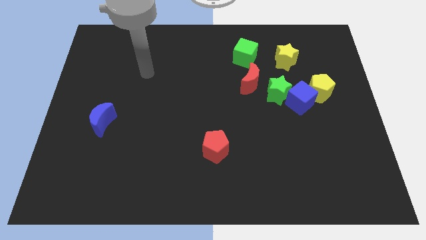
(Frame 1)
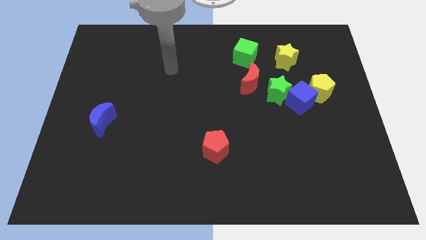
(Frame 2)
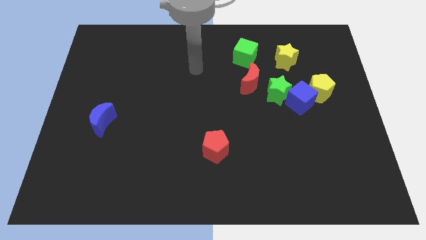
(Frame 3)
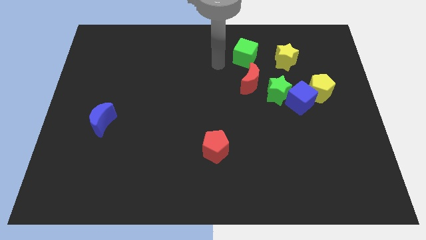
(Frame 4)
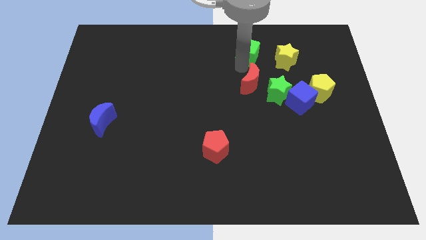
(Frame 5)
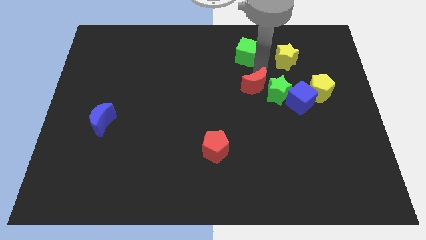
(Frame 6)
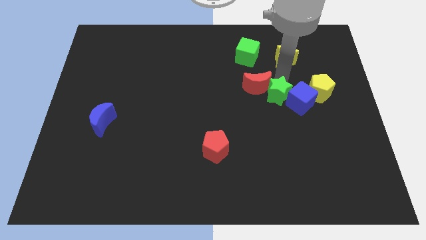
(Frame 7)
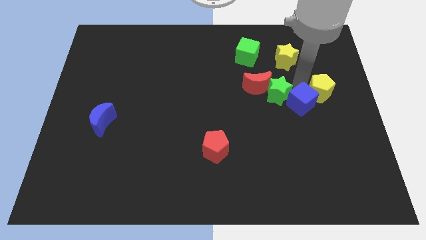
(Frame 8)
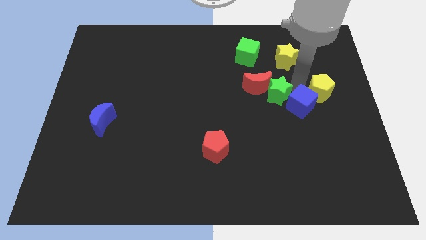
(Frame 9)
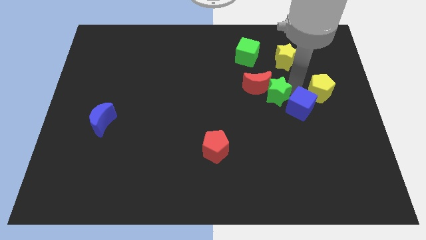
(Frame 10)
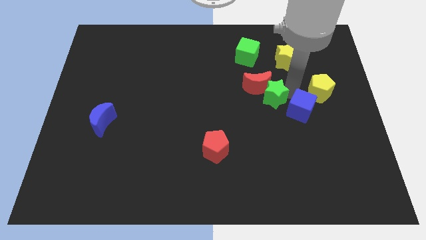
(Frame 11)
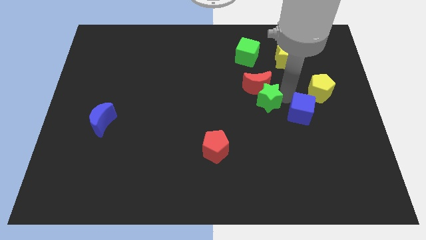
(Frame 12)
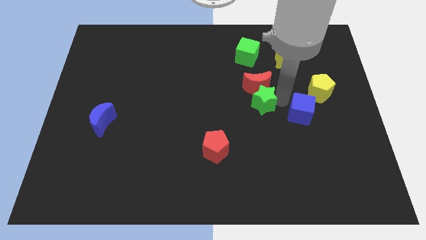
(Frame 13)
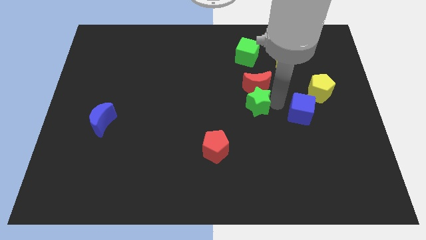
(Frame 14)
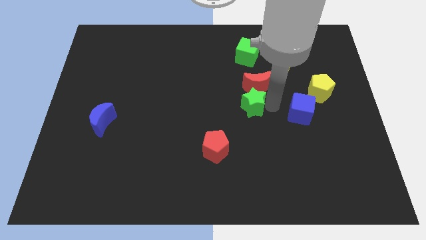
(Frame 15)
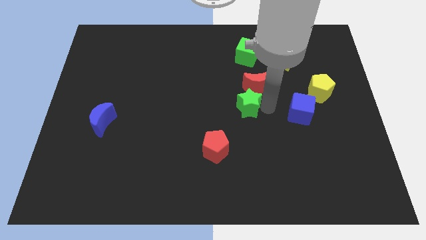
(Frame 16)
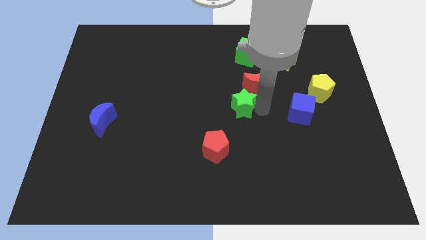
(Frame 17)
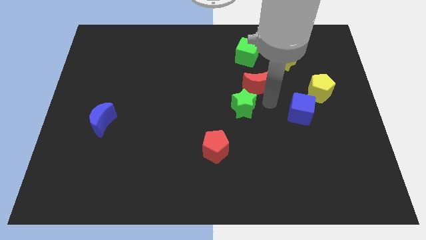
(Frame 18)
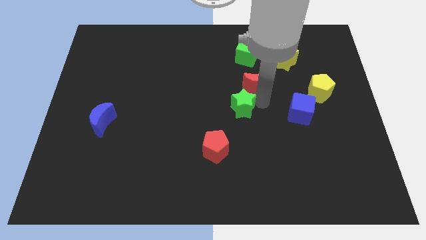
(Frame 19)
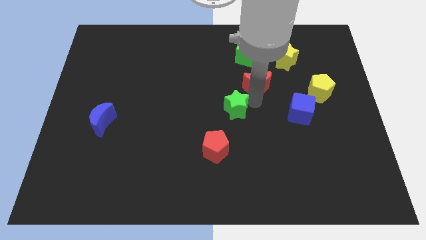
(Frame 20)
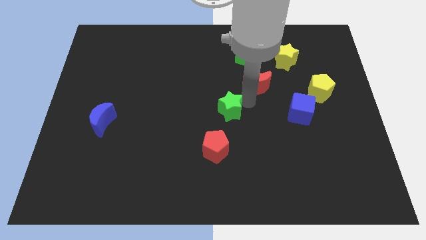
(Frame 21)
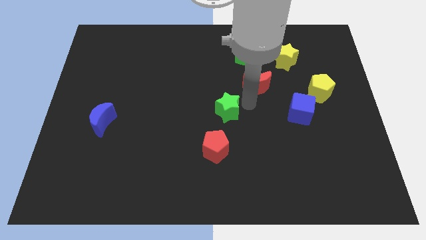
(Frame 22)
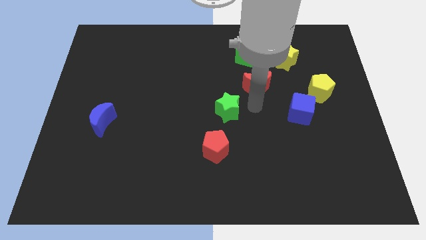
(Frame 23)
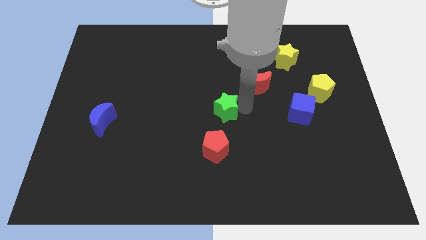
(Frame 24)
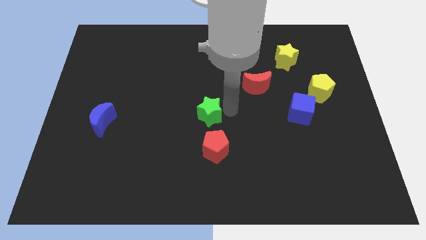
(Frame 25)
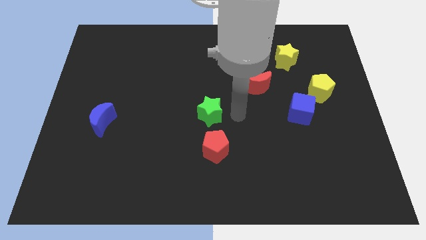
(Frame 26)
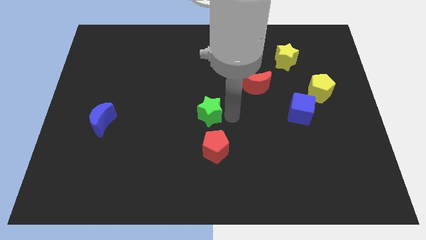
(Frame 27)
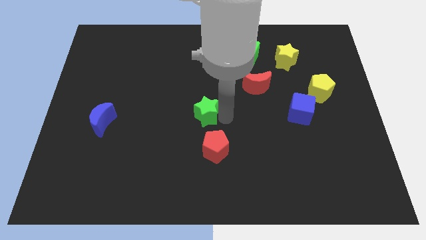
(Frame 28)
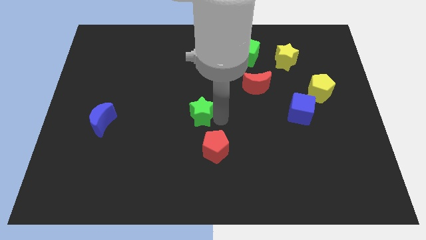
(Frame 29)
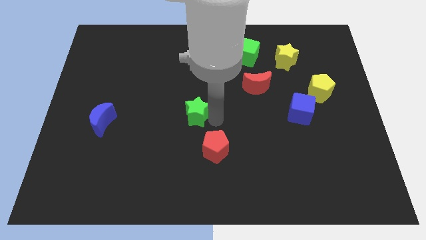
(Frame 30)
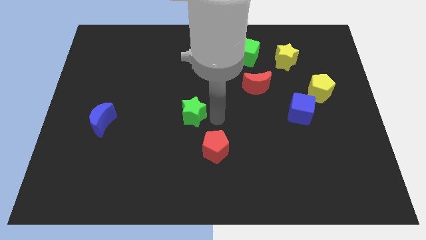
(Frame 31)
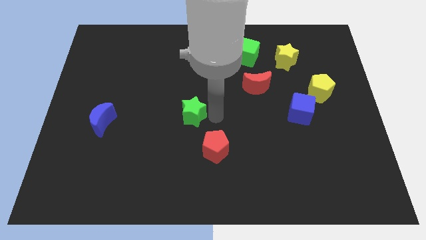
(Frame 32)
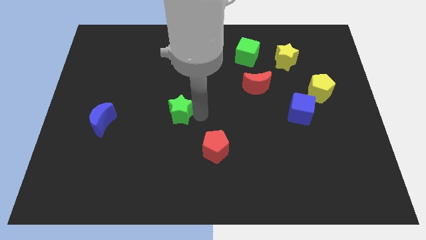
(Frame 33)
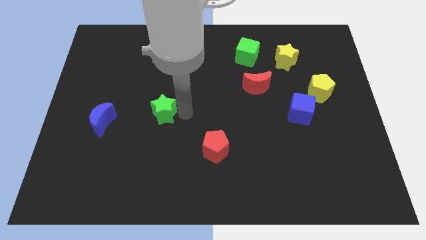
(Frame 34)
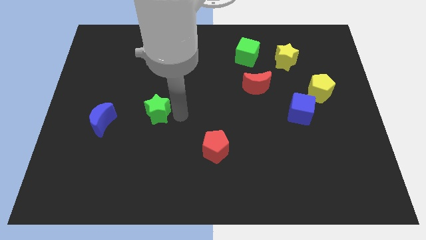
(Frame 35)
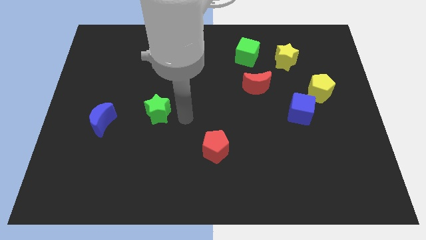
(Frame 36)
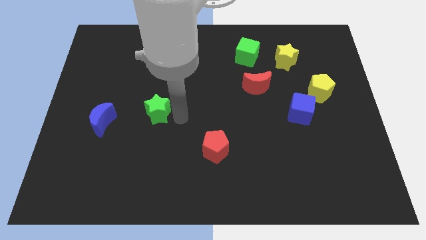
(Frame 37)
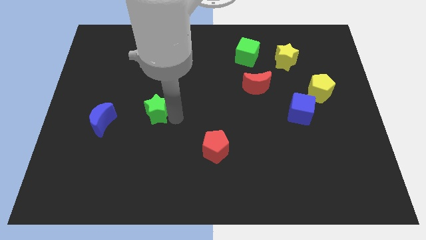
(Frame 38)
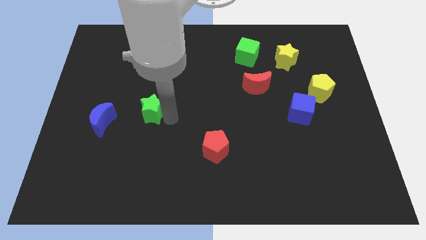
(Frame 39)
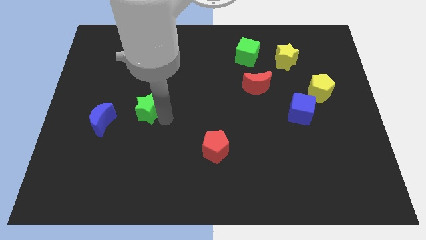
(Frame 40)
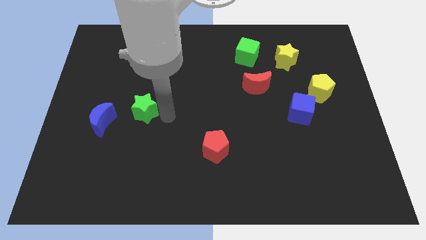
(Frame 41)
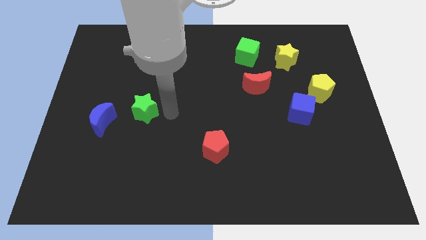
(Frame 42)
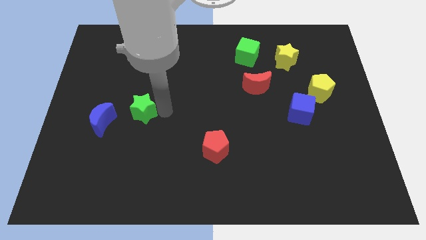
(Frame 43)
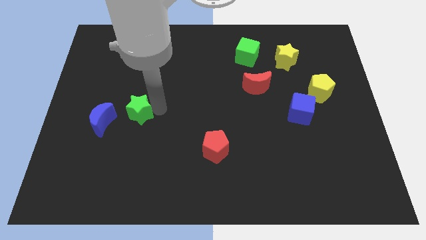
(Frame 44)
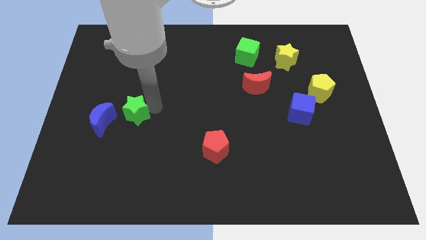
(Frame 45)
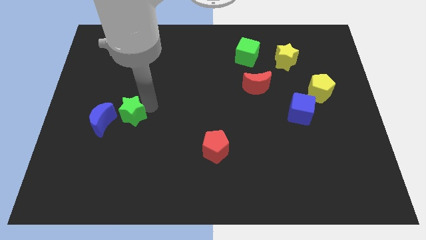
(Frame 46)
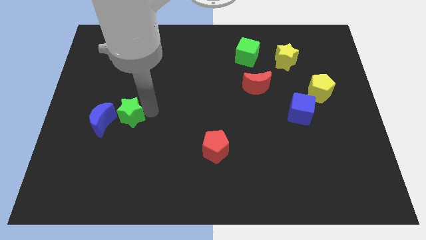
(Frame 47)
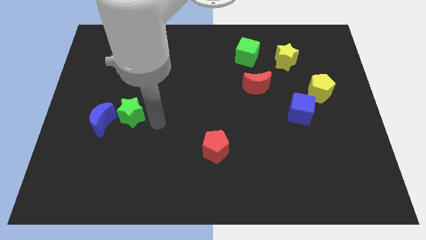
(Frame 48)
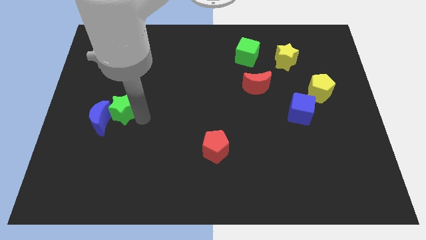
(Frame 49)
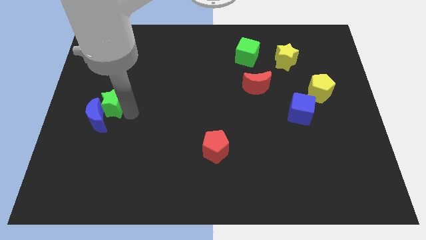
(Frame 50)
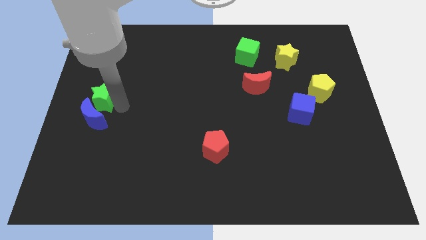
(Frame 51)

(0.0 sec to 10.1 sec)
slide the green star to the left side

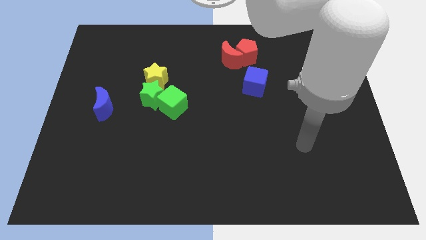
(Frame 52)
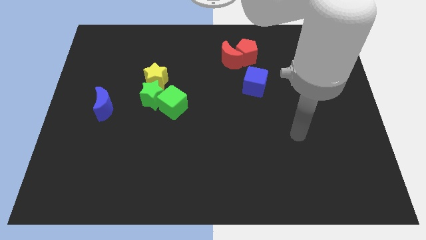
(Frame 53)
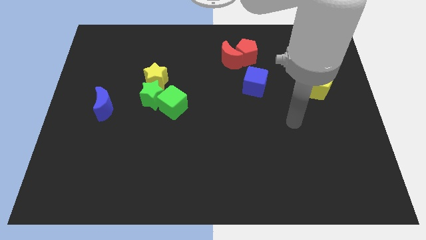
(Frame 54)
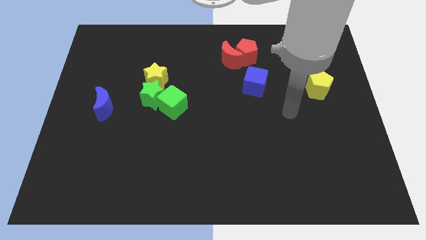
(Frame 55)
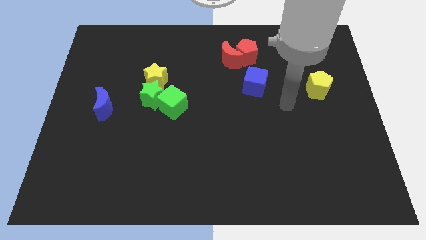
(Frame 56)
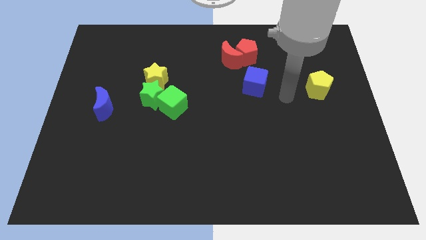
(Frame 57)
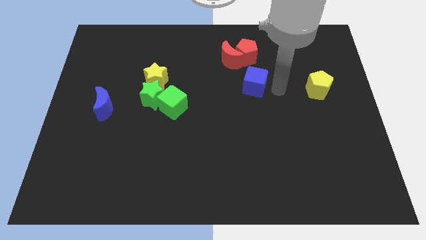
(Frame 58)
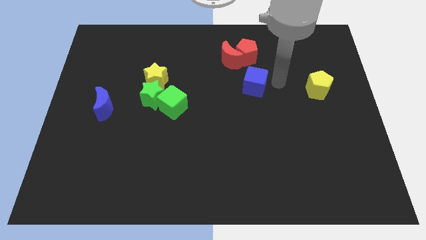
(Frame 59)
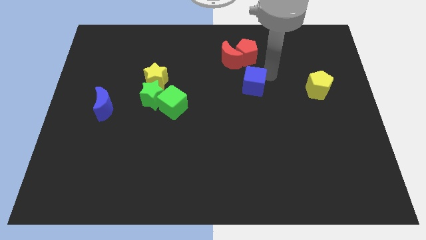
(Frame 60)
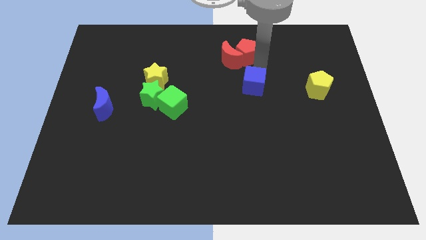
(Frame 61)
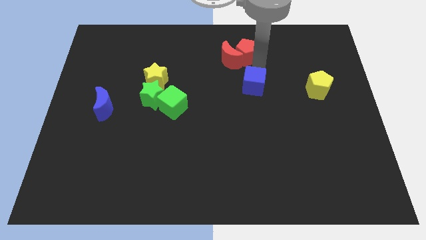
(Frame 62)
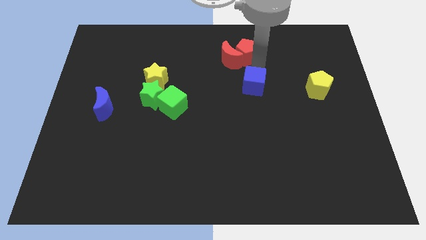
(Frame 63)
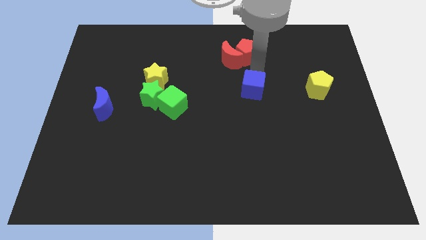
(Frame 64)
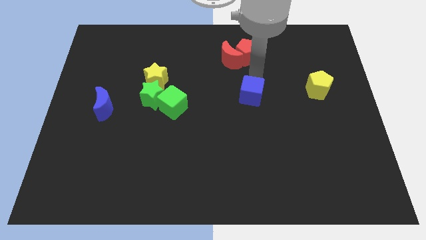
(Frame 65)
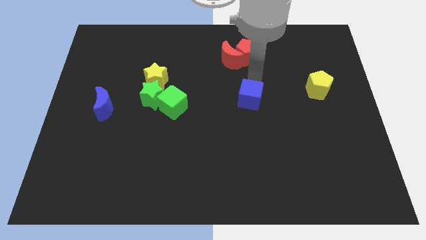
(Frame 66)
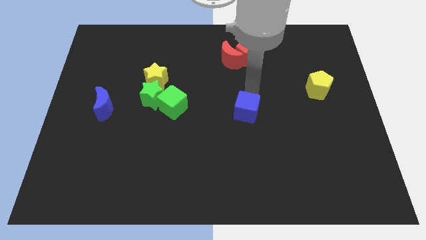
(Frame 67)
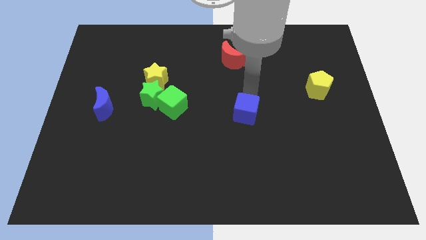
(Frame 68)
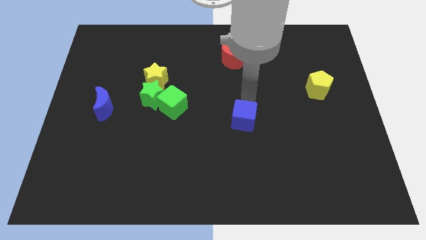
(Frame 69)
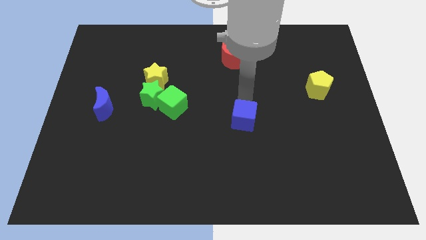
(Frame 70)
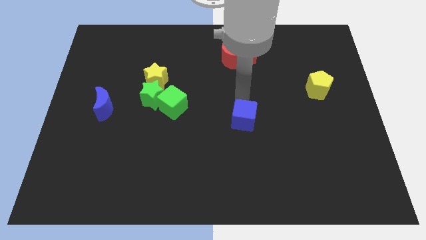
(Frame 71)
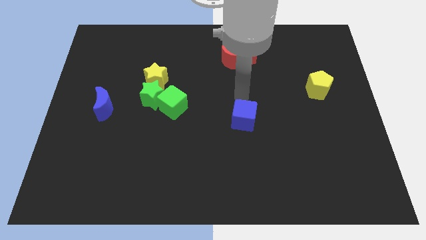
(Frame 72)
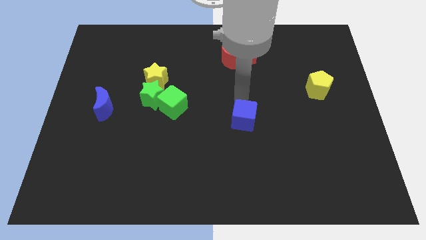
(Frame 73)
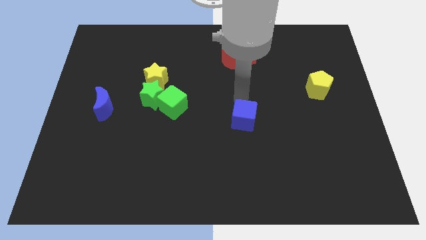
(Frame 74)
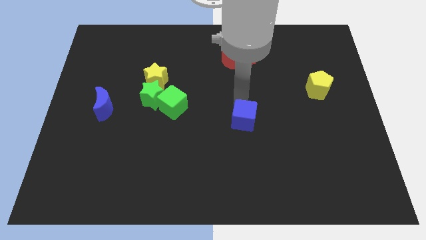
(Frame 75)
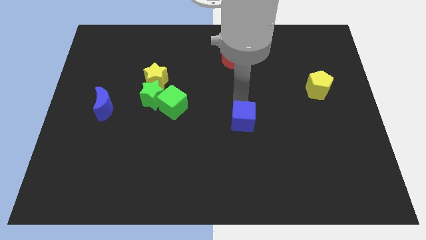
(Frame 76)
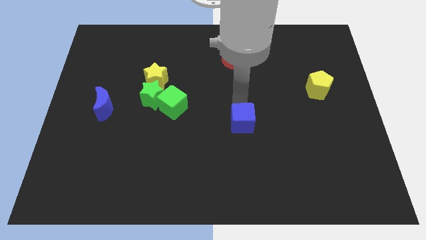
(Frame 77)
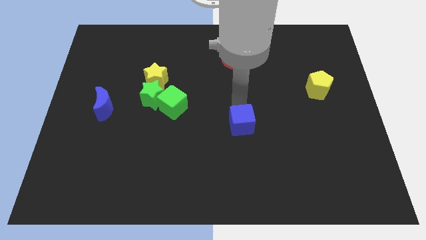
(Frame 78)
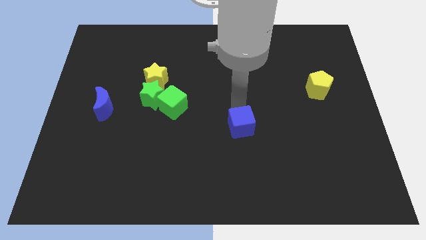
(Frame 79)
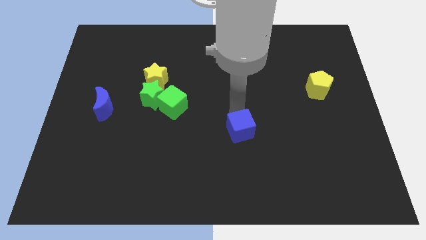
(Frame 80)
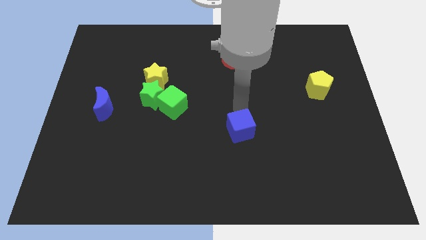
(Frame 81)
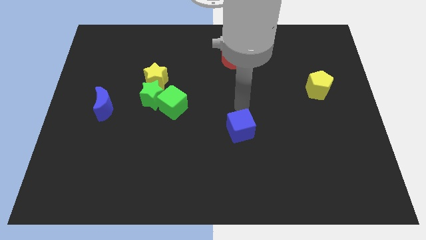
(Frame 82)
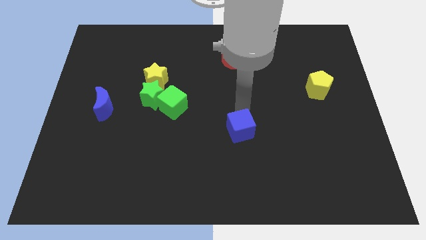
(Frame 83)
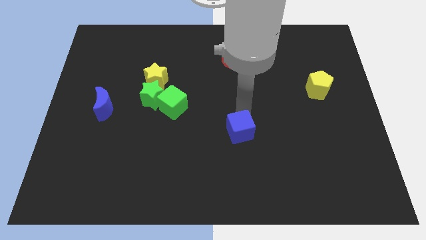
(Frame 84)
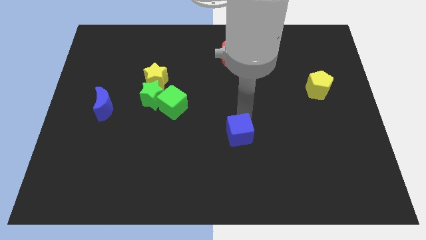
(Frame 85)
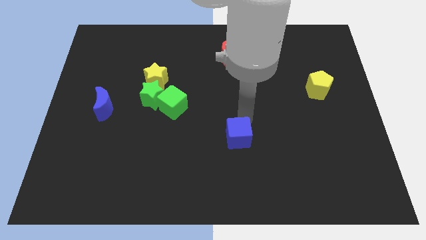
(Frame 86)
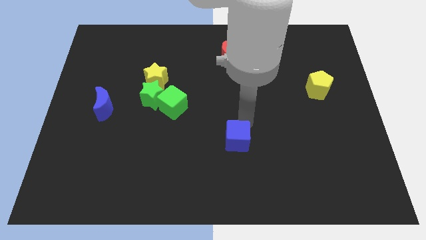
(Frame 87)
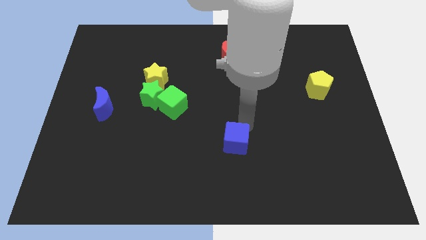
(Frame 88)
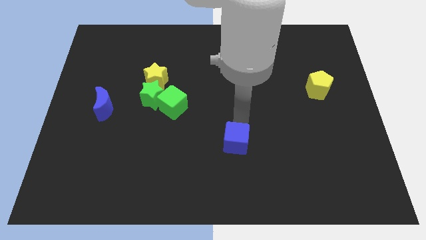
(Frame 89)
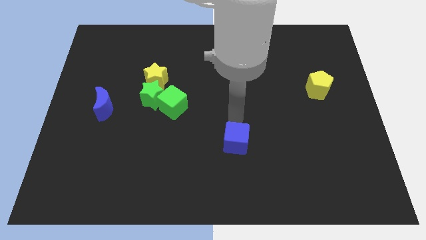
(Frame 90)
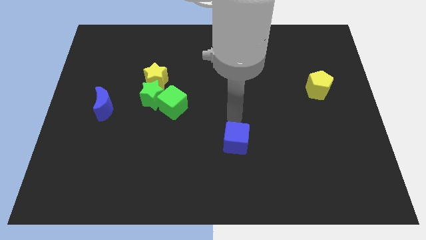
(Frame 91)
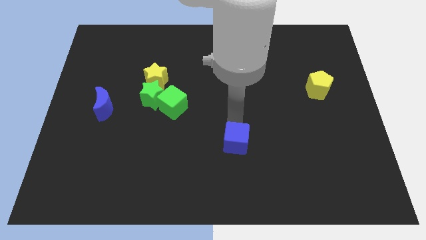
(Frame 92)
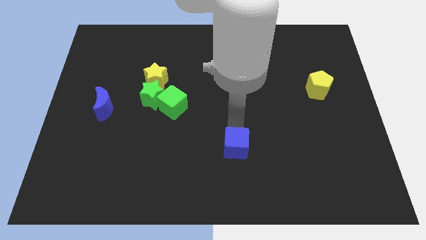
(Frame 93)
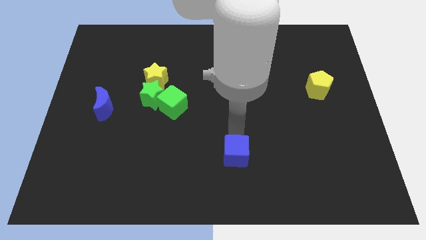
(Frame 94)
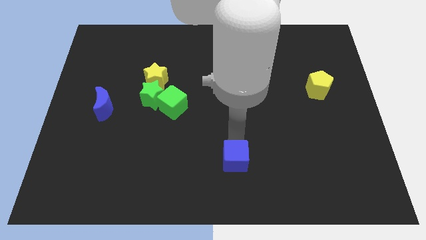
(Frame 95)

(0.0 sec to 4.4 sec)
push the blue cube to the bottom side
